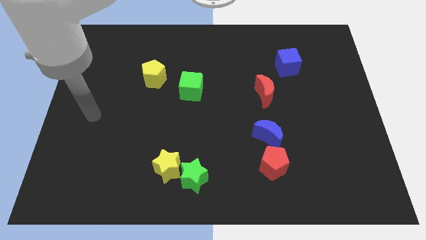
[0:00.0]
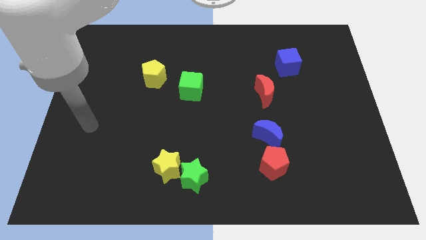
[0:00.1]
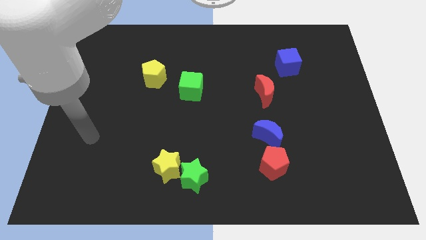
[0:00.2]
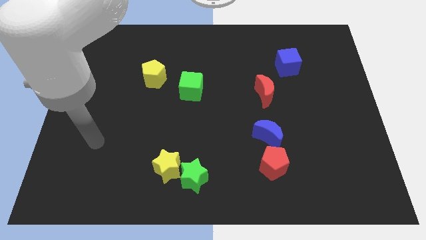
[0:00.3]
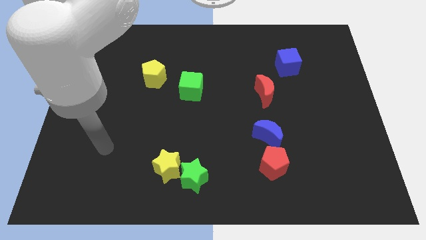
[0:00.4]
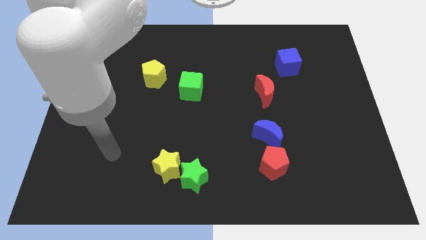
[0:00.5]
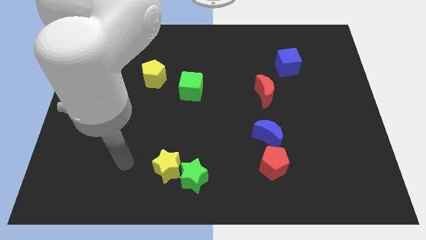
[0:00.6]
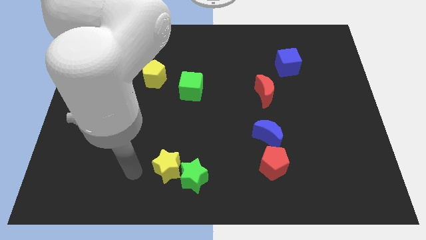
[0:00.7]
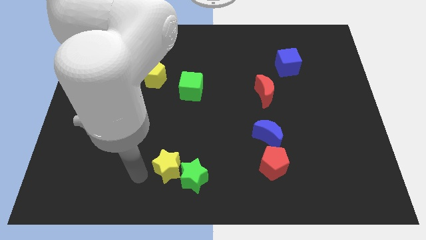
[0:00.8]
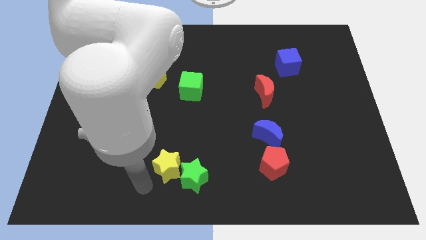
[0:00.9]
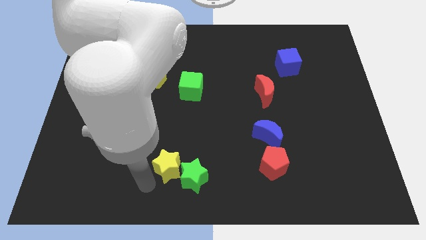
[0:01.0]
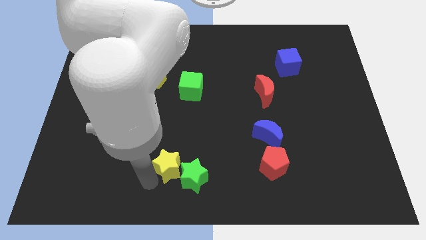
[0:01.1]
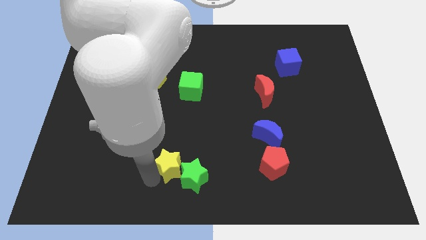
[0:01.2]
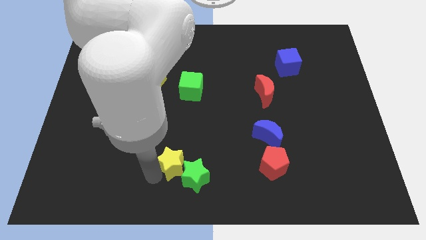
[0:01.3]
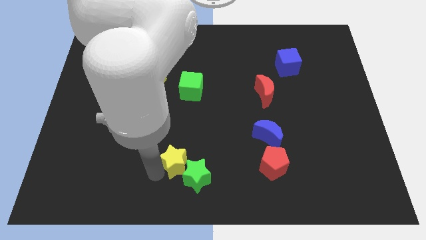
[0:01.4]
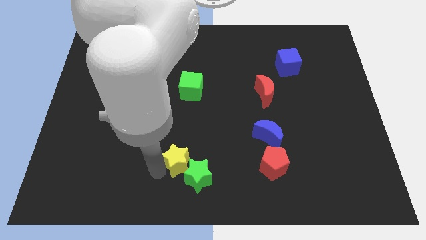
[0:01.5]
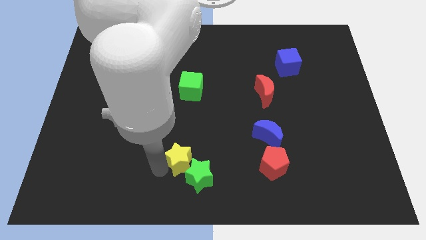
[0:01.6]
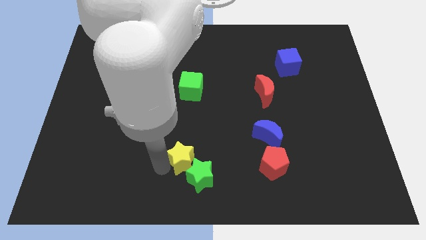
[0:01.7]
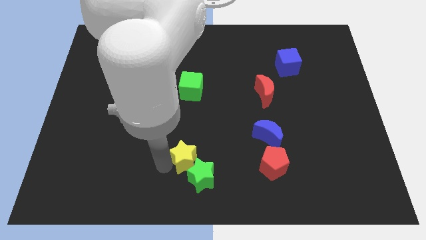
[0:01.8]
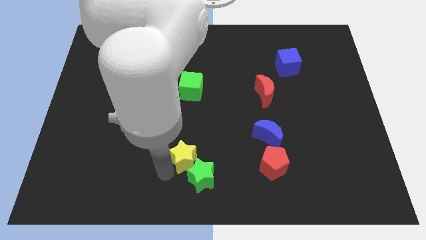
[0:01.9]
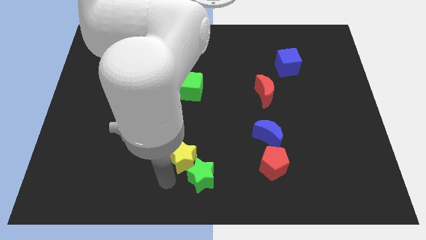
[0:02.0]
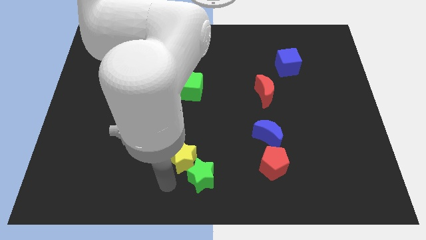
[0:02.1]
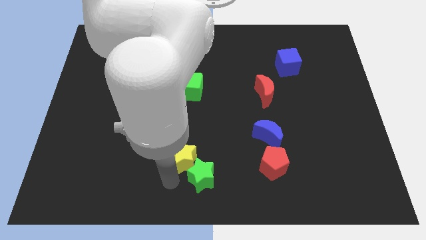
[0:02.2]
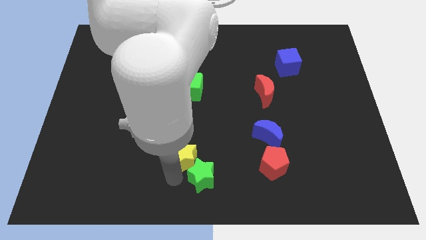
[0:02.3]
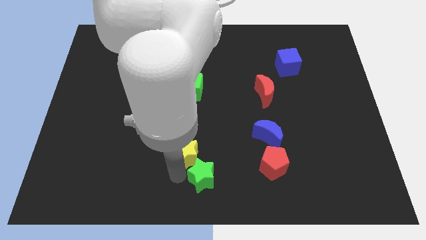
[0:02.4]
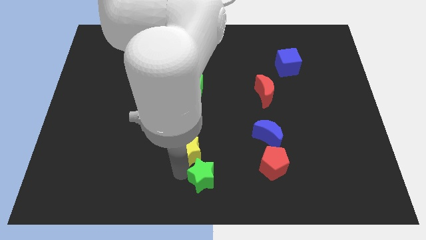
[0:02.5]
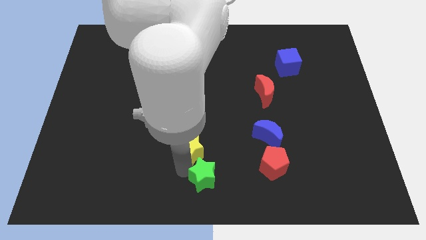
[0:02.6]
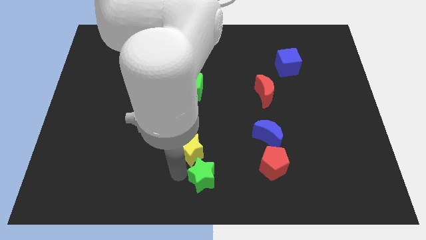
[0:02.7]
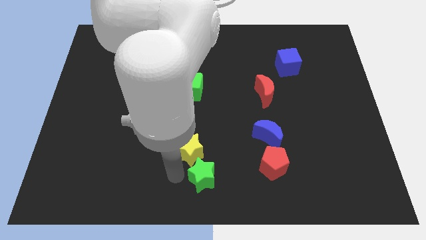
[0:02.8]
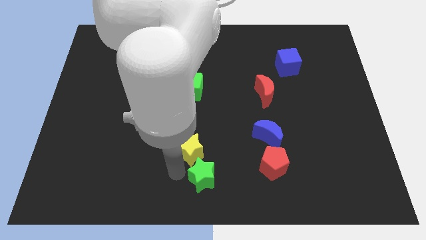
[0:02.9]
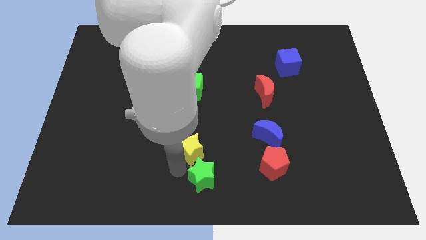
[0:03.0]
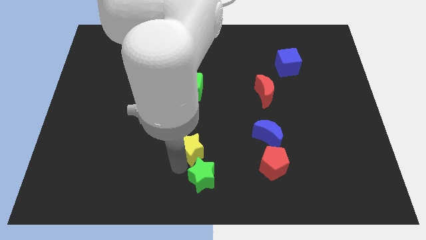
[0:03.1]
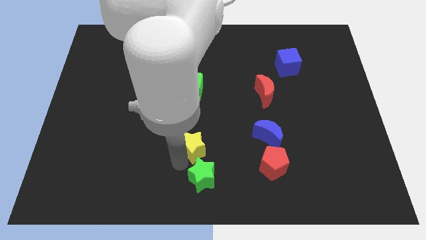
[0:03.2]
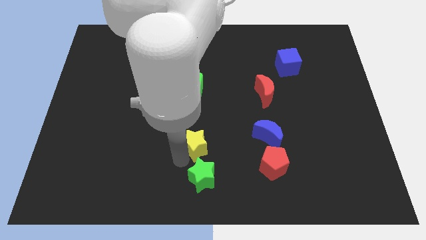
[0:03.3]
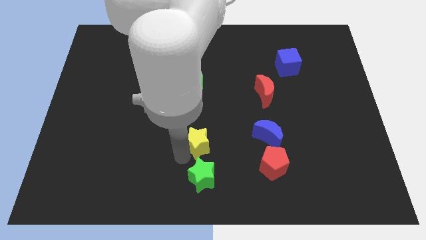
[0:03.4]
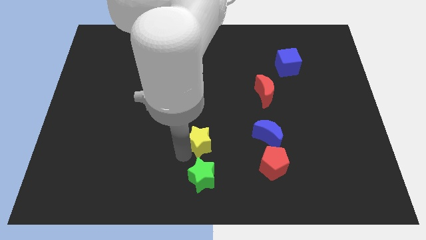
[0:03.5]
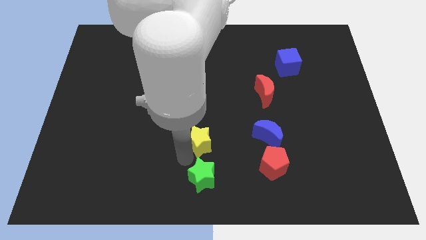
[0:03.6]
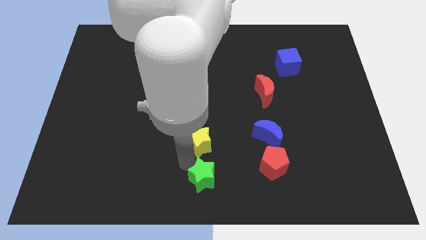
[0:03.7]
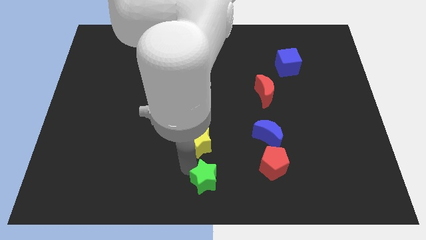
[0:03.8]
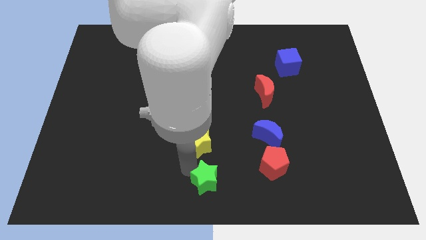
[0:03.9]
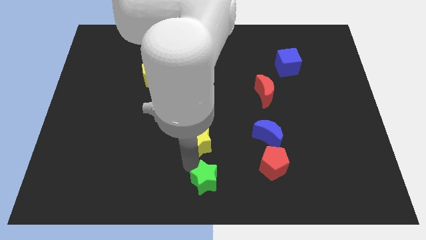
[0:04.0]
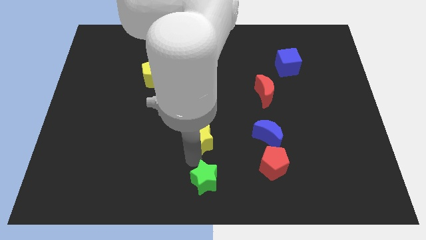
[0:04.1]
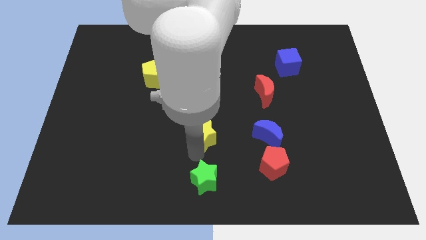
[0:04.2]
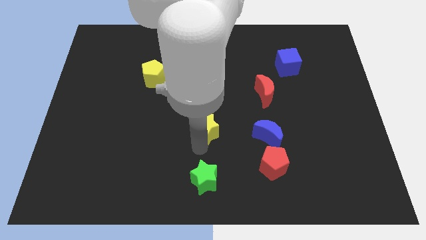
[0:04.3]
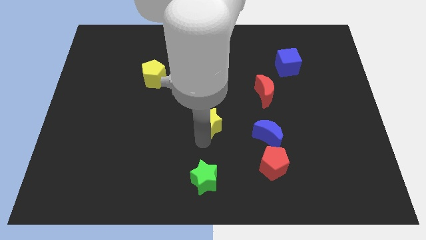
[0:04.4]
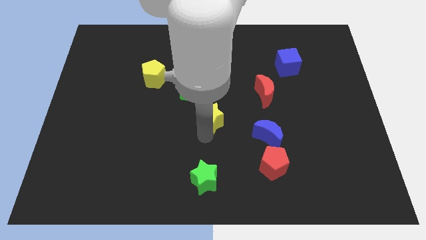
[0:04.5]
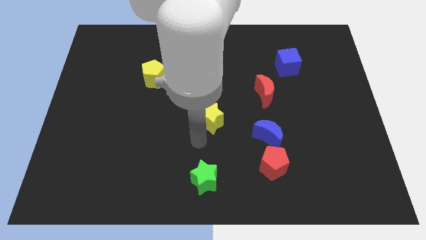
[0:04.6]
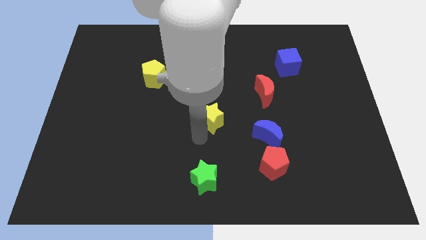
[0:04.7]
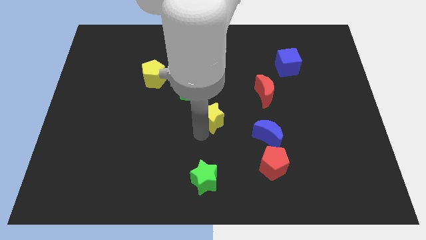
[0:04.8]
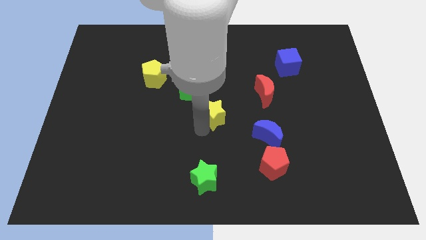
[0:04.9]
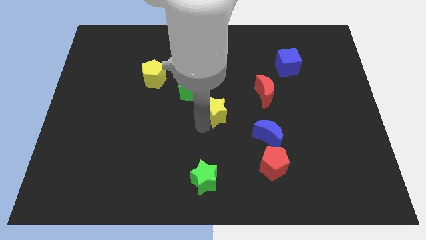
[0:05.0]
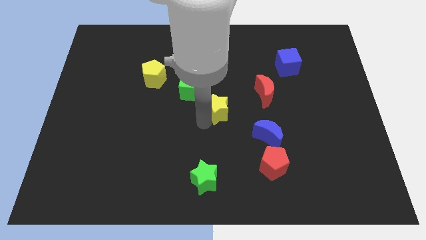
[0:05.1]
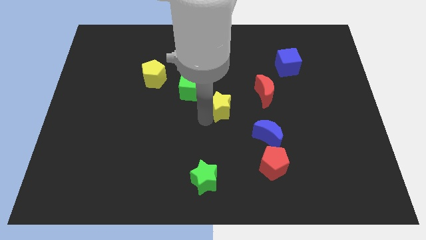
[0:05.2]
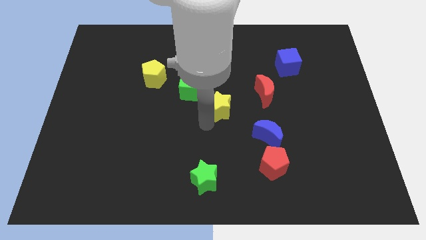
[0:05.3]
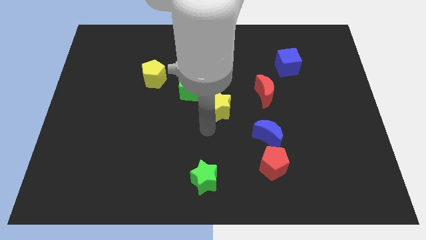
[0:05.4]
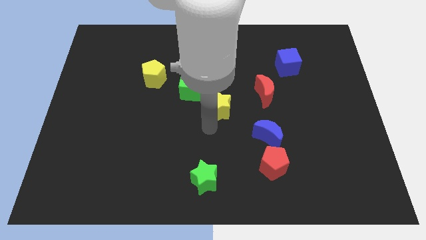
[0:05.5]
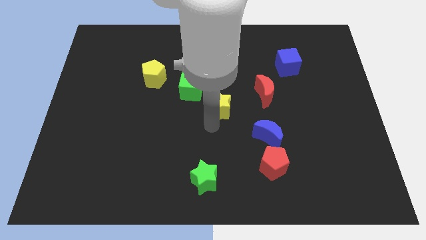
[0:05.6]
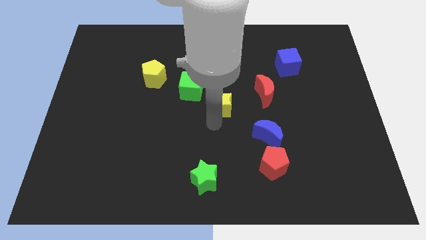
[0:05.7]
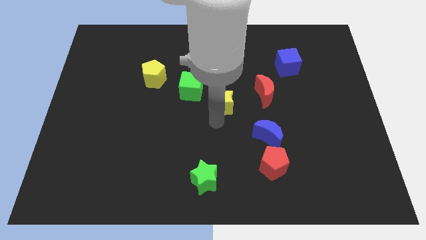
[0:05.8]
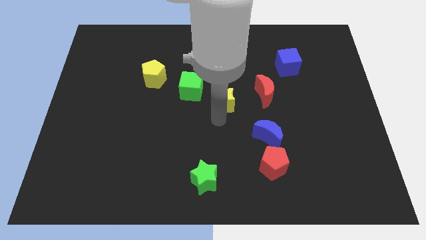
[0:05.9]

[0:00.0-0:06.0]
put the yellow star right of the green cube

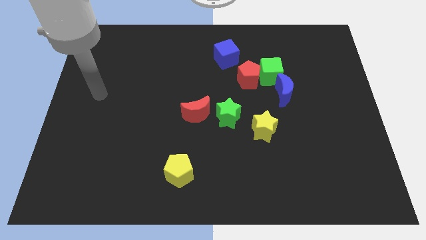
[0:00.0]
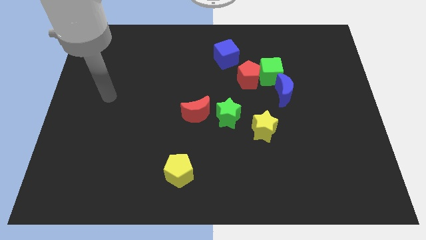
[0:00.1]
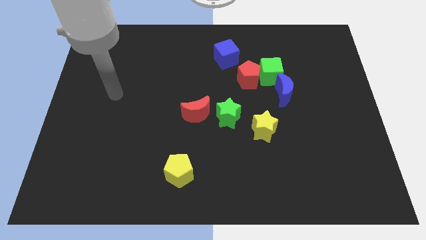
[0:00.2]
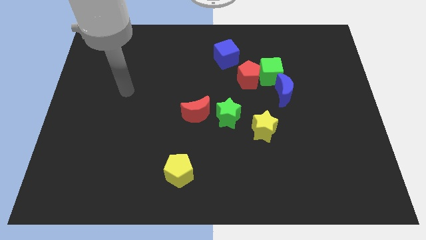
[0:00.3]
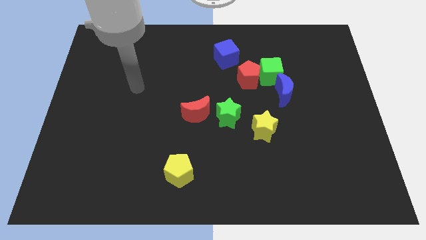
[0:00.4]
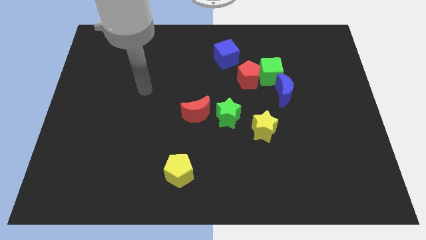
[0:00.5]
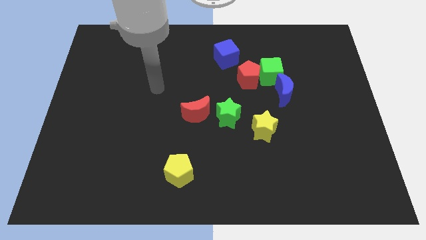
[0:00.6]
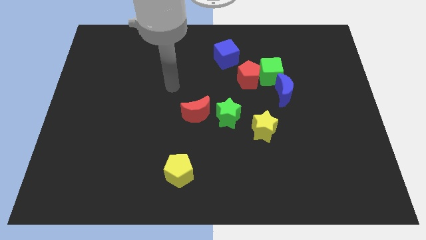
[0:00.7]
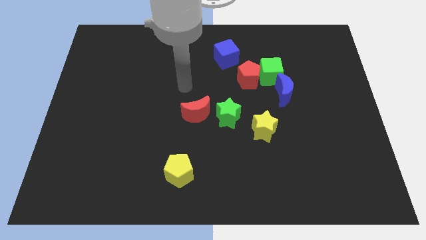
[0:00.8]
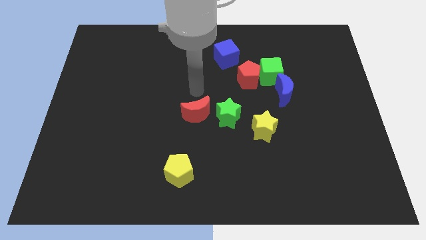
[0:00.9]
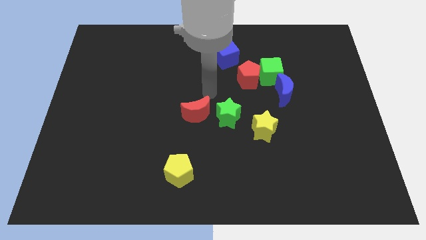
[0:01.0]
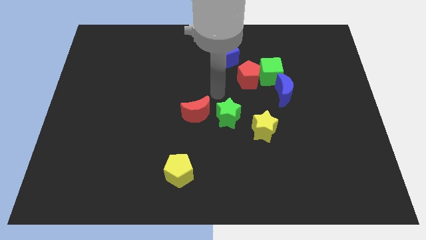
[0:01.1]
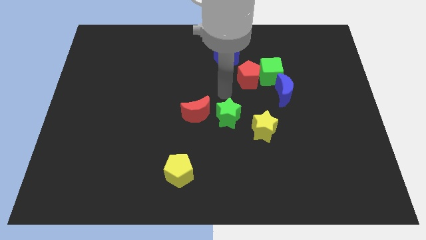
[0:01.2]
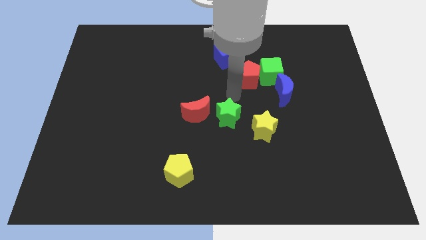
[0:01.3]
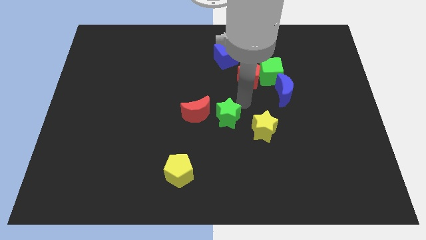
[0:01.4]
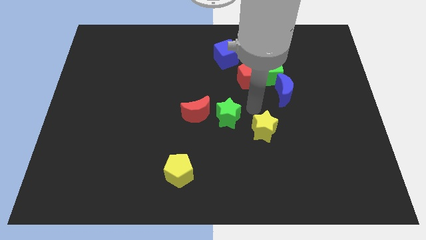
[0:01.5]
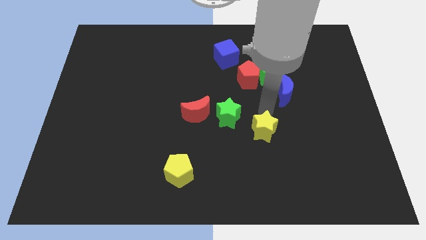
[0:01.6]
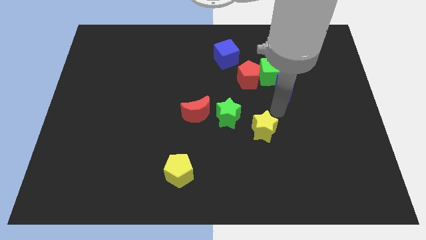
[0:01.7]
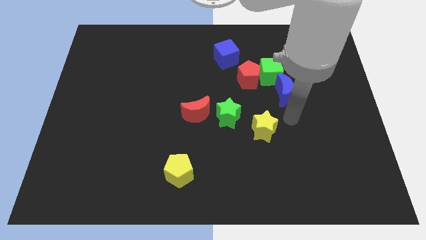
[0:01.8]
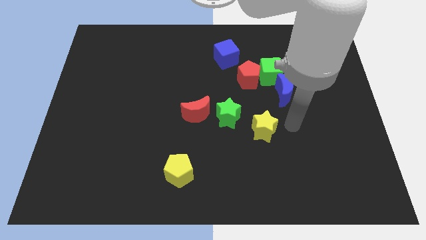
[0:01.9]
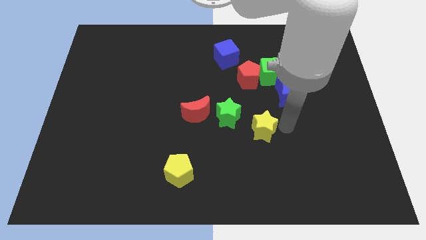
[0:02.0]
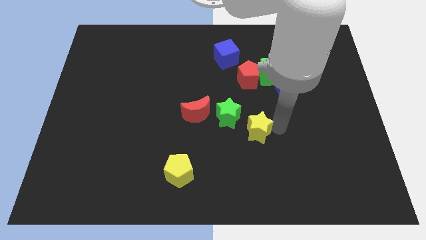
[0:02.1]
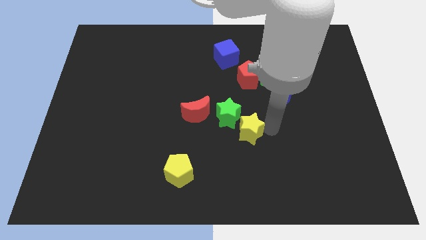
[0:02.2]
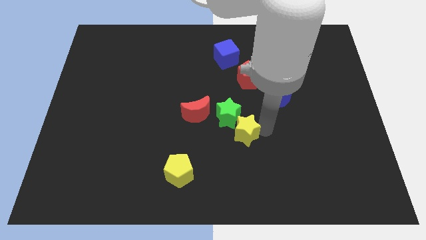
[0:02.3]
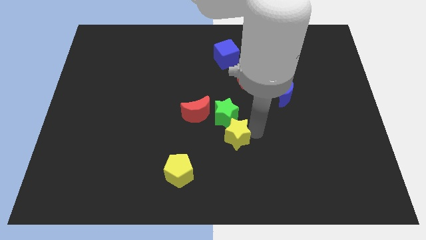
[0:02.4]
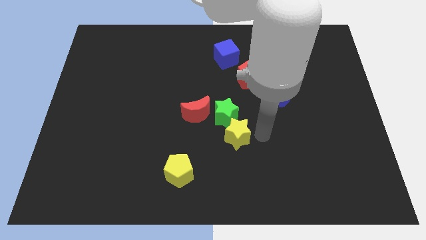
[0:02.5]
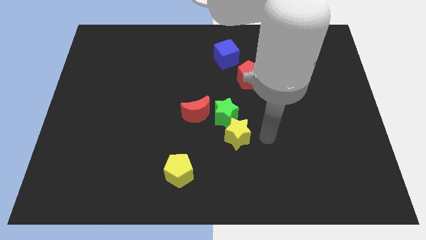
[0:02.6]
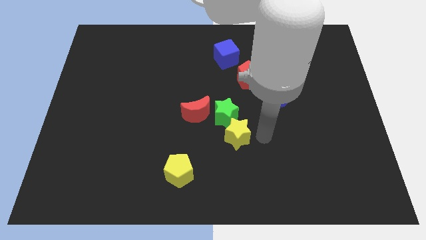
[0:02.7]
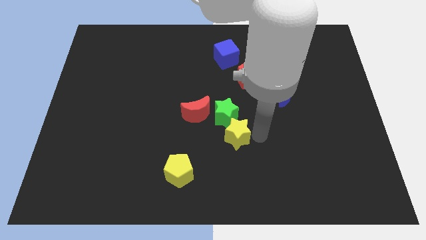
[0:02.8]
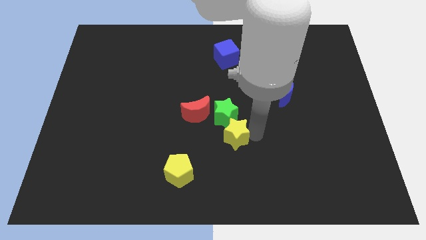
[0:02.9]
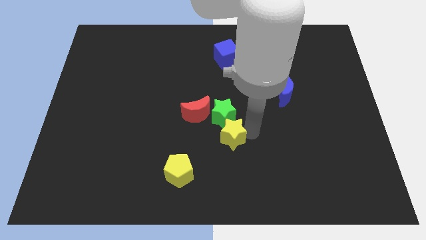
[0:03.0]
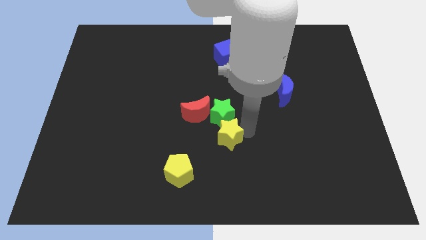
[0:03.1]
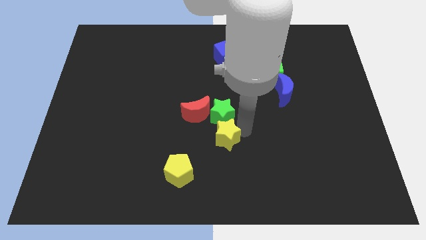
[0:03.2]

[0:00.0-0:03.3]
push the yellow star to the bottom left of the green star
